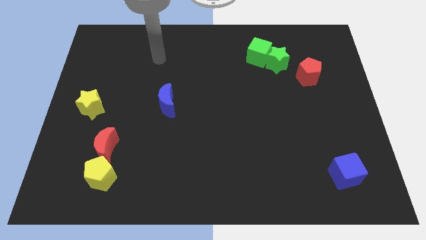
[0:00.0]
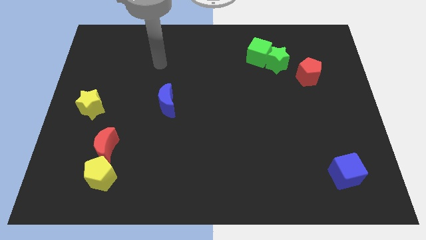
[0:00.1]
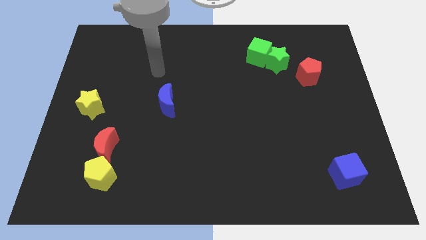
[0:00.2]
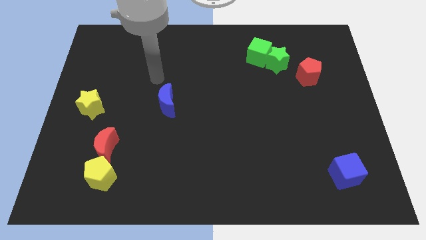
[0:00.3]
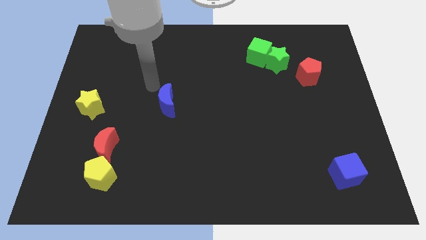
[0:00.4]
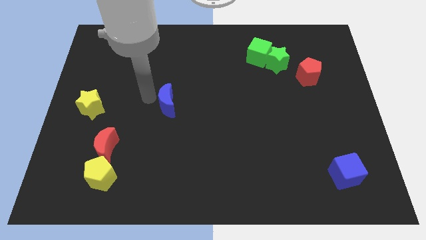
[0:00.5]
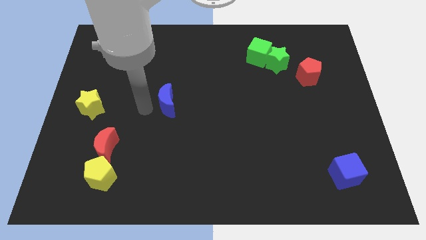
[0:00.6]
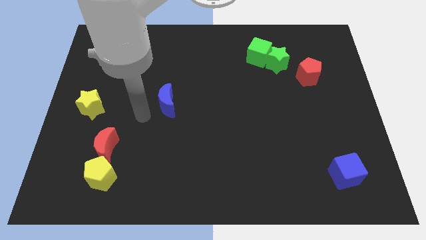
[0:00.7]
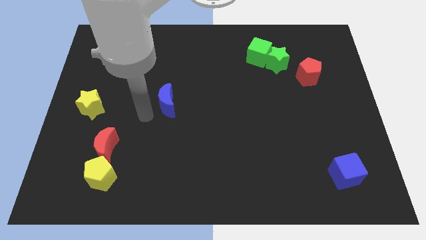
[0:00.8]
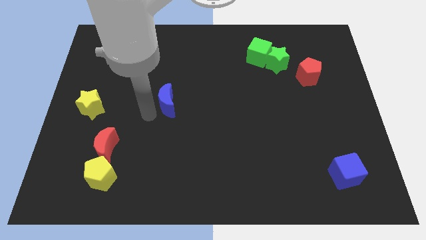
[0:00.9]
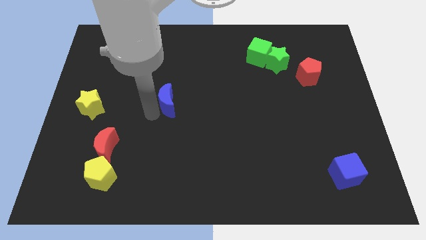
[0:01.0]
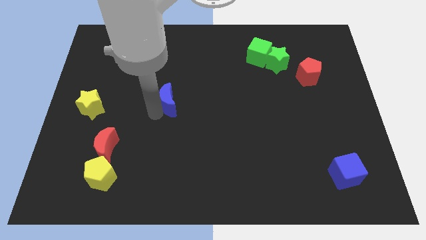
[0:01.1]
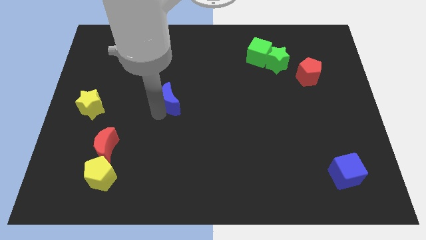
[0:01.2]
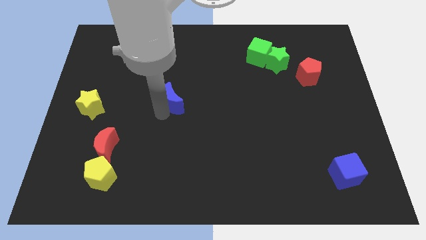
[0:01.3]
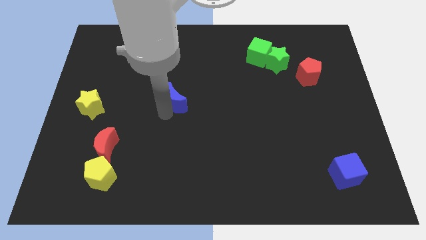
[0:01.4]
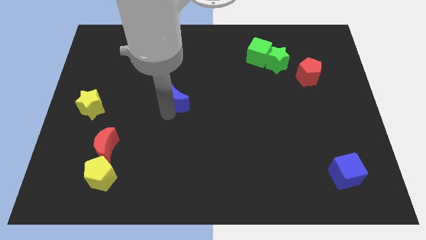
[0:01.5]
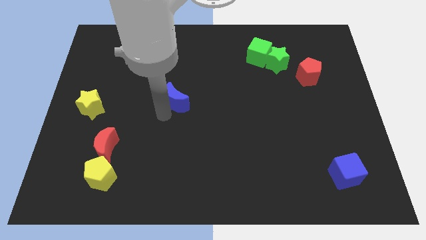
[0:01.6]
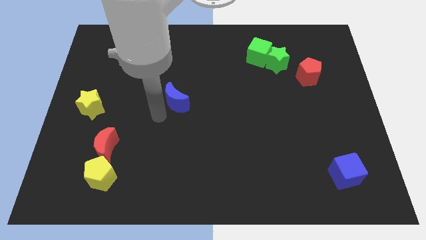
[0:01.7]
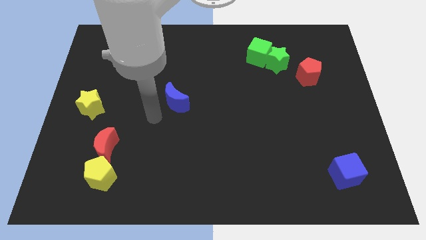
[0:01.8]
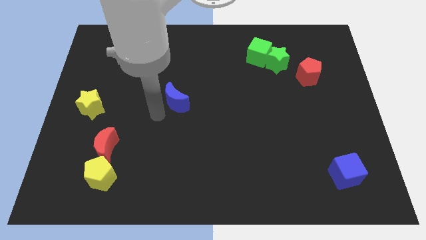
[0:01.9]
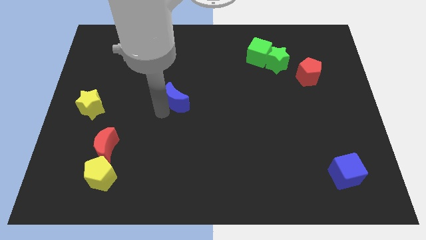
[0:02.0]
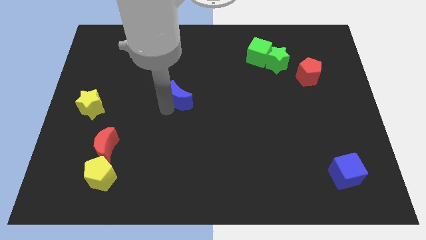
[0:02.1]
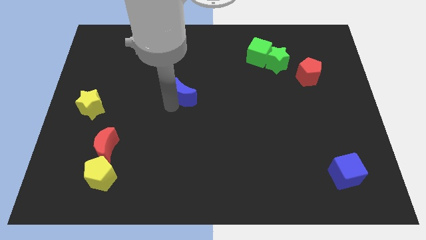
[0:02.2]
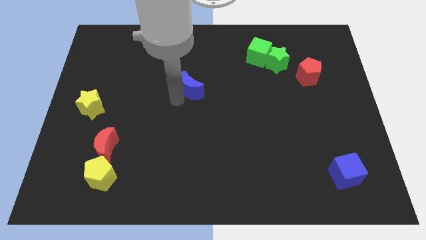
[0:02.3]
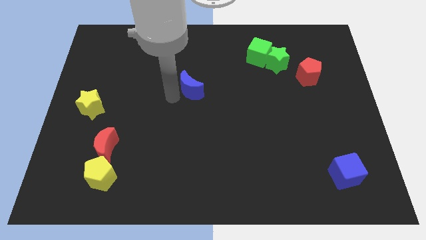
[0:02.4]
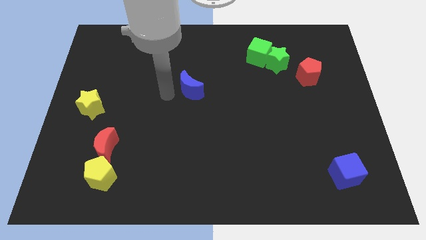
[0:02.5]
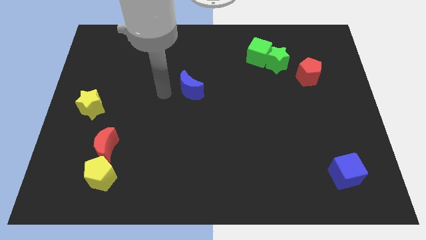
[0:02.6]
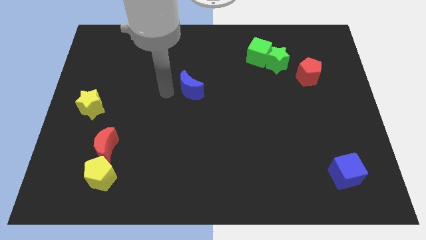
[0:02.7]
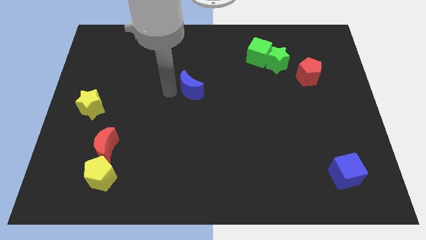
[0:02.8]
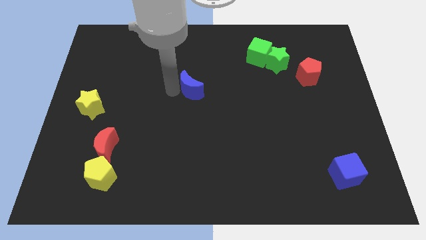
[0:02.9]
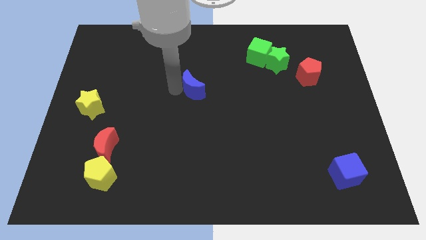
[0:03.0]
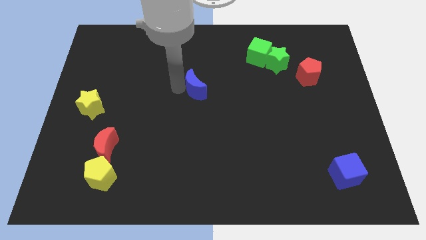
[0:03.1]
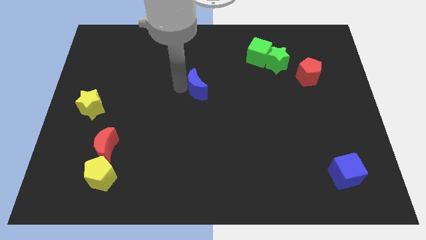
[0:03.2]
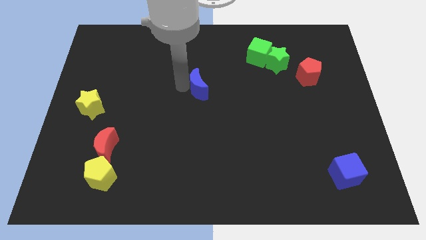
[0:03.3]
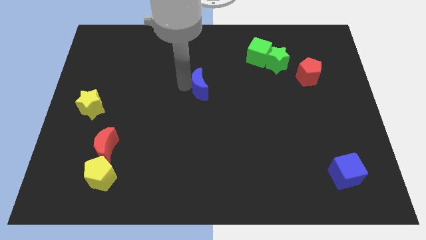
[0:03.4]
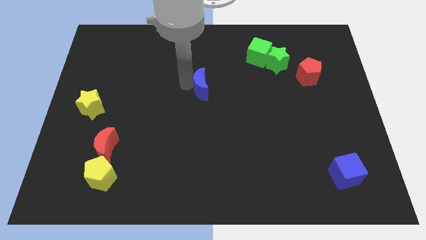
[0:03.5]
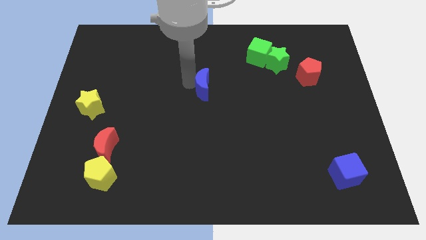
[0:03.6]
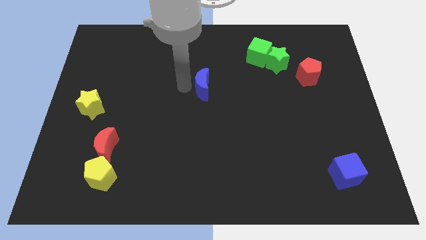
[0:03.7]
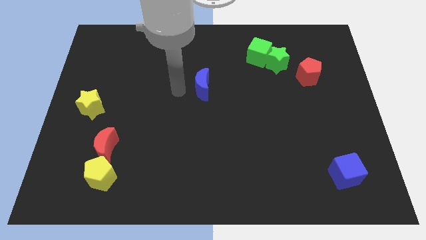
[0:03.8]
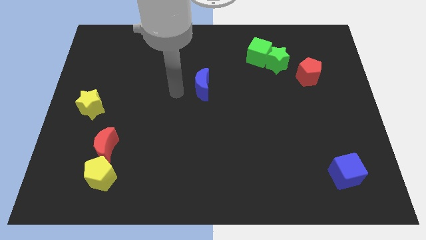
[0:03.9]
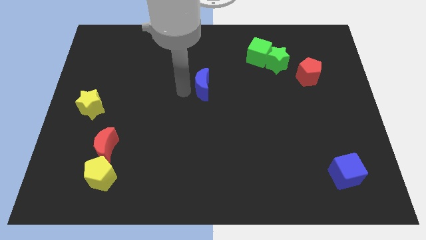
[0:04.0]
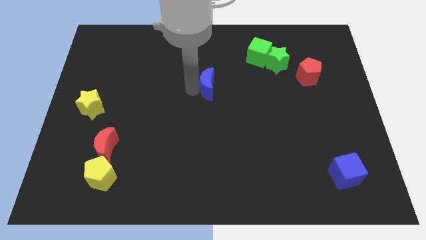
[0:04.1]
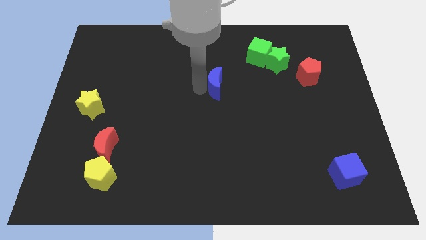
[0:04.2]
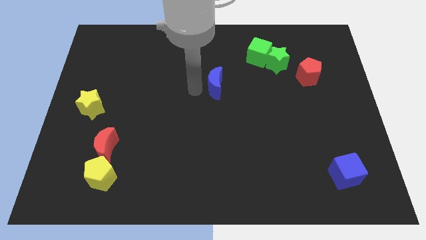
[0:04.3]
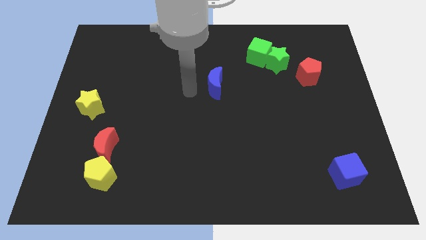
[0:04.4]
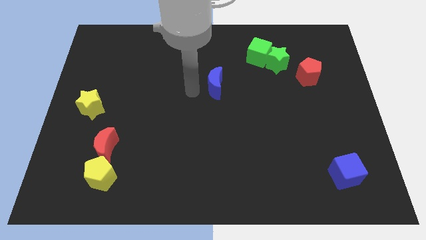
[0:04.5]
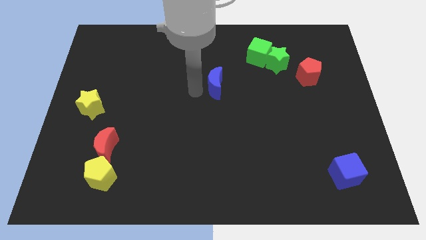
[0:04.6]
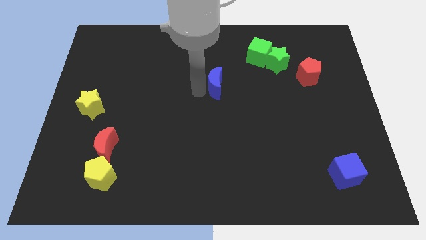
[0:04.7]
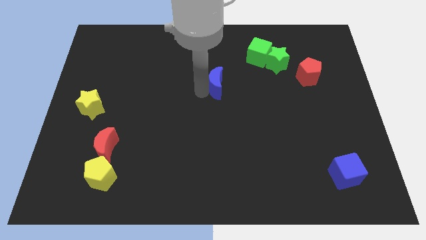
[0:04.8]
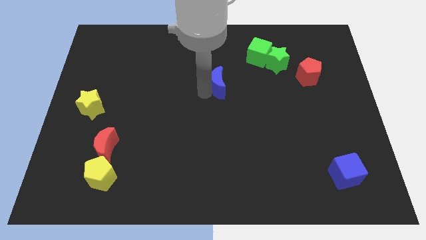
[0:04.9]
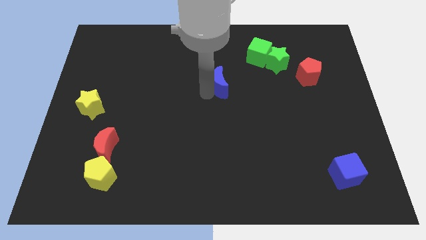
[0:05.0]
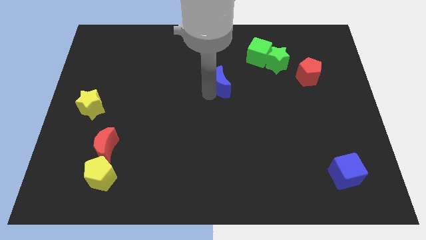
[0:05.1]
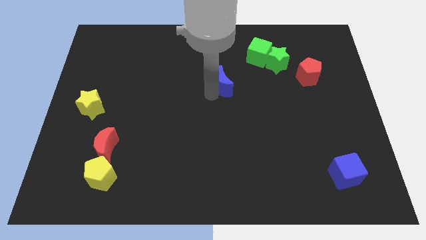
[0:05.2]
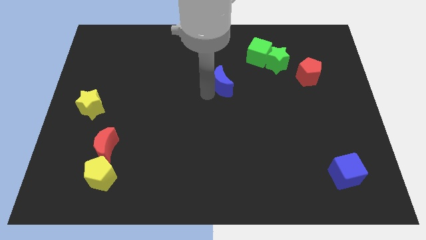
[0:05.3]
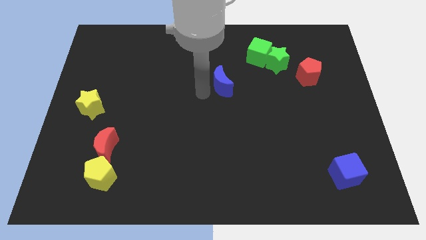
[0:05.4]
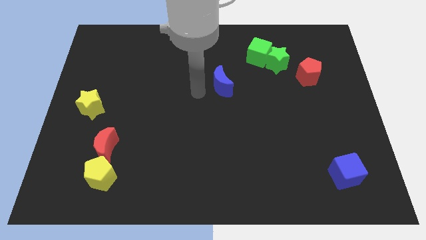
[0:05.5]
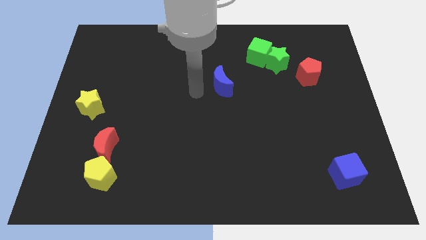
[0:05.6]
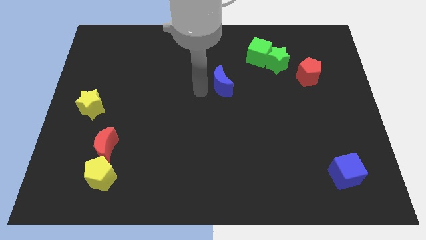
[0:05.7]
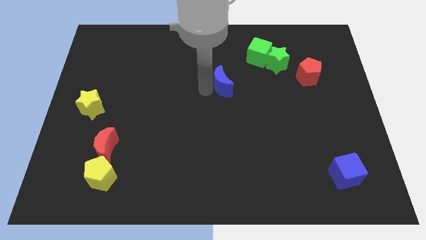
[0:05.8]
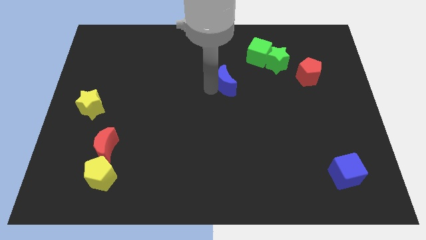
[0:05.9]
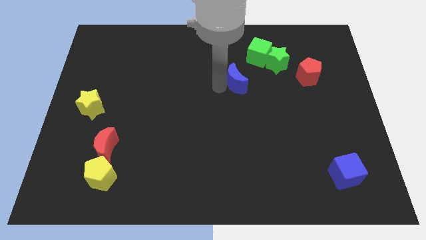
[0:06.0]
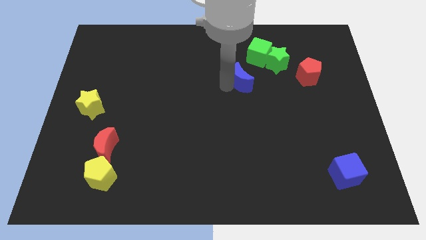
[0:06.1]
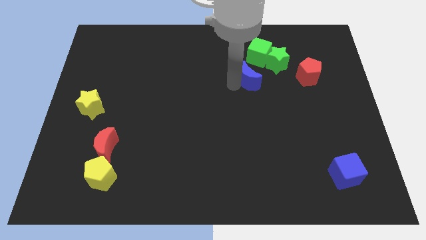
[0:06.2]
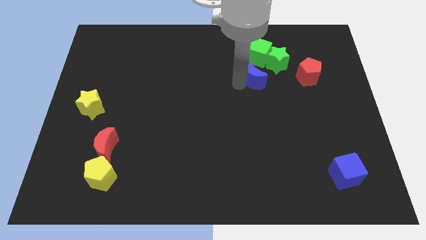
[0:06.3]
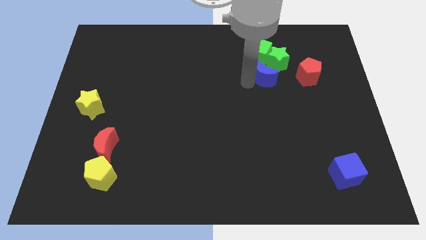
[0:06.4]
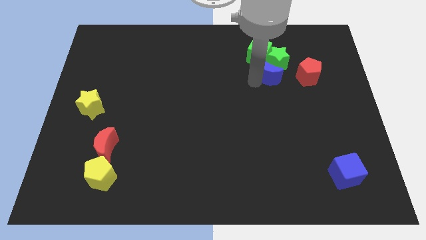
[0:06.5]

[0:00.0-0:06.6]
put the blue moon close to the green star
